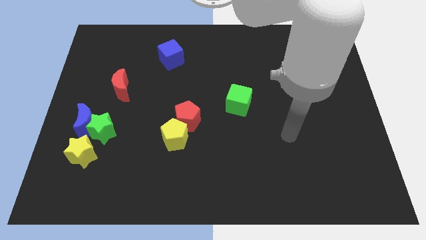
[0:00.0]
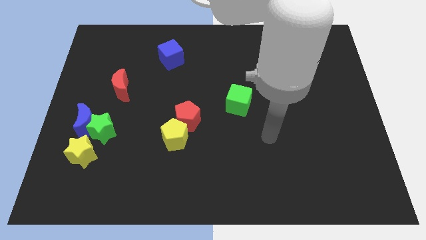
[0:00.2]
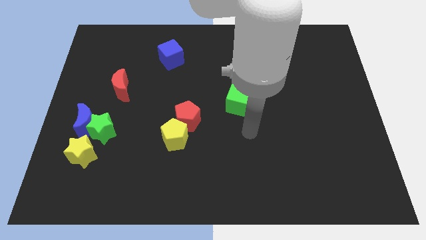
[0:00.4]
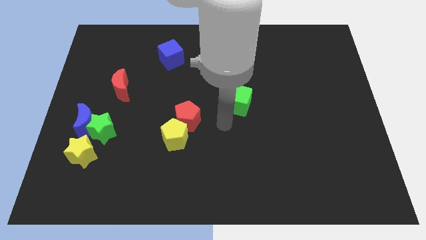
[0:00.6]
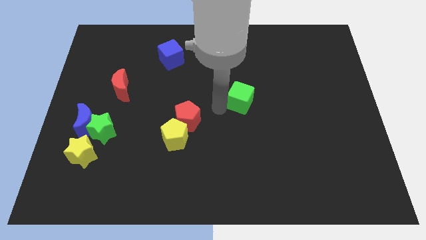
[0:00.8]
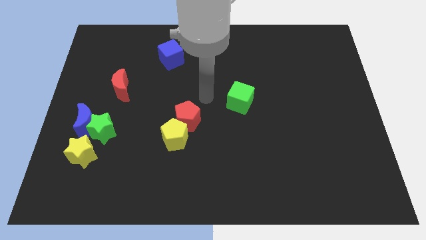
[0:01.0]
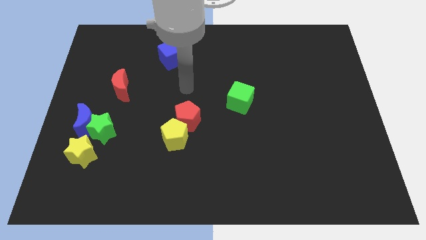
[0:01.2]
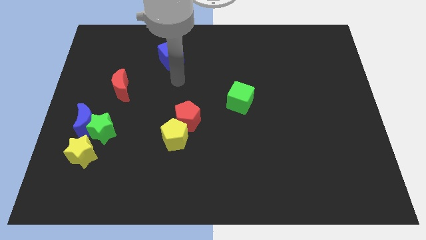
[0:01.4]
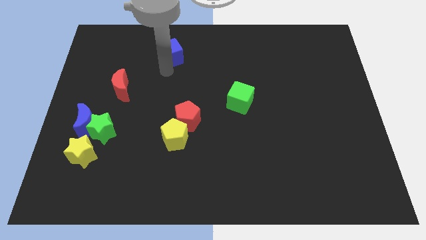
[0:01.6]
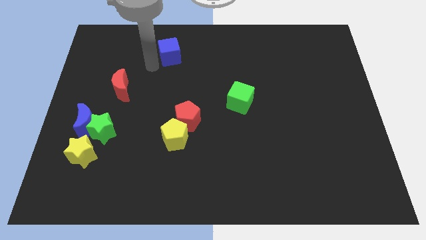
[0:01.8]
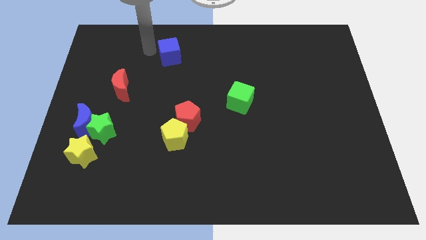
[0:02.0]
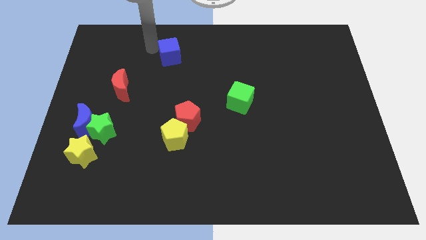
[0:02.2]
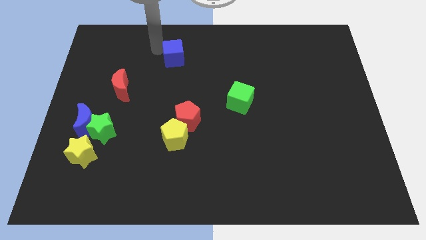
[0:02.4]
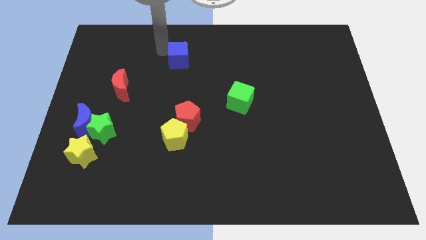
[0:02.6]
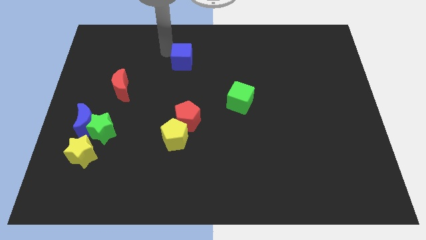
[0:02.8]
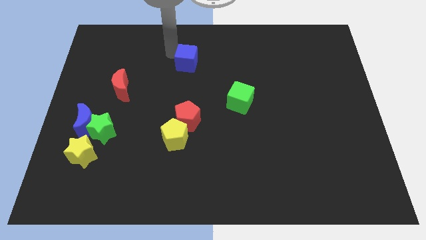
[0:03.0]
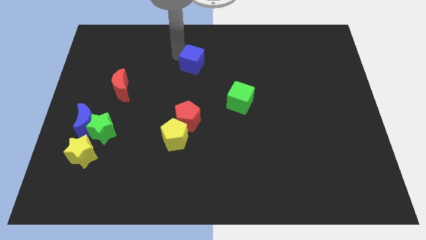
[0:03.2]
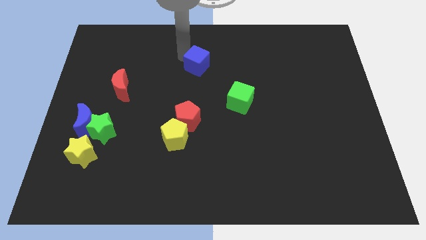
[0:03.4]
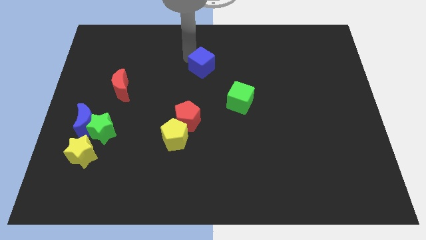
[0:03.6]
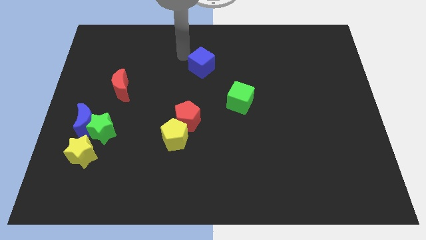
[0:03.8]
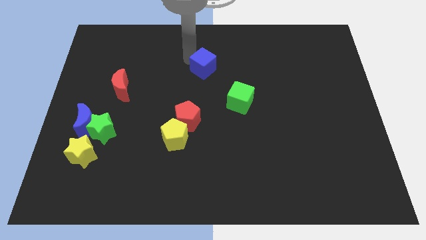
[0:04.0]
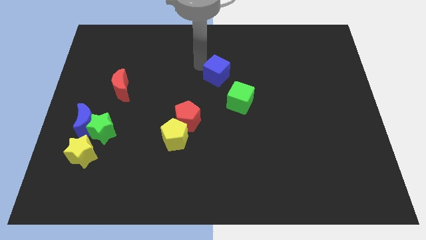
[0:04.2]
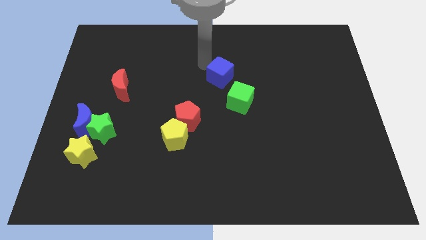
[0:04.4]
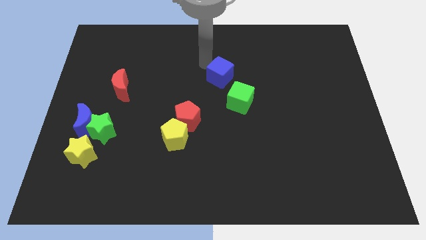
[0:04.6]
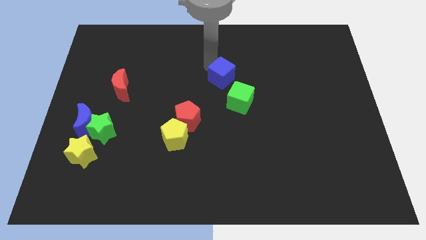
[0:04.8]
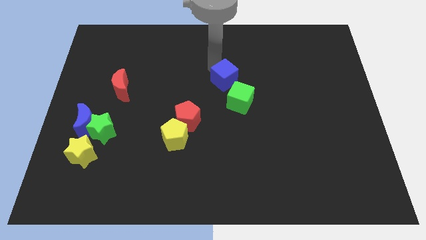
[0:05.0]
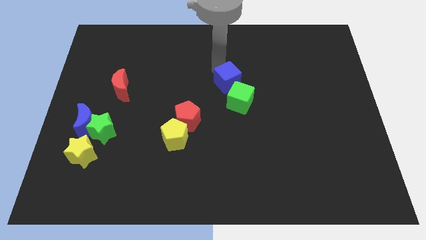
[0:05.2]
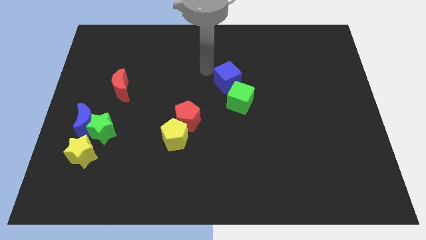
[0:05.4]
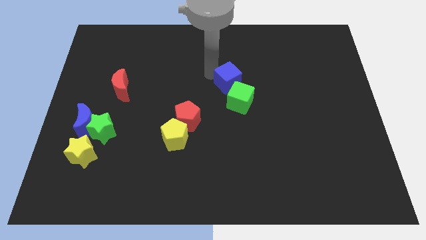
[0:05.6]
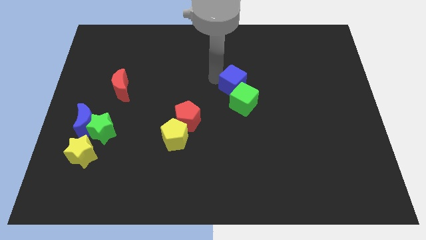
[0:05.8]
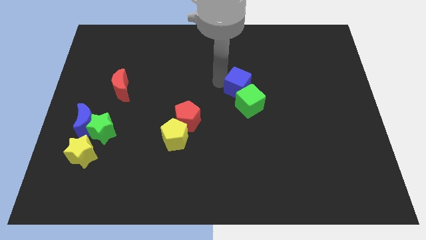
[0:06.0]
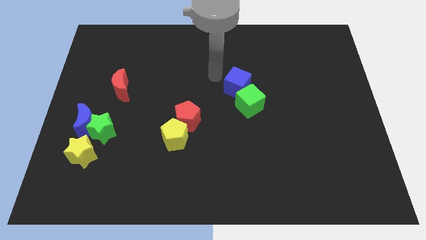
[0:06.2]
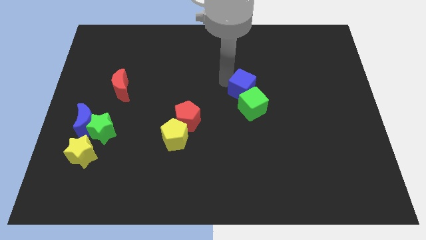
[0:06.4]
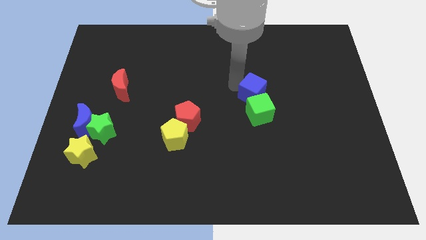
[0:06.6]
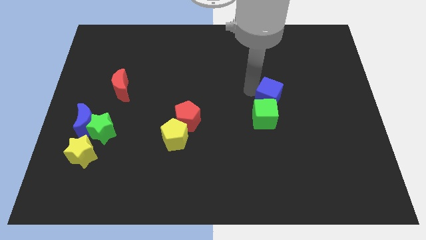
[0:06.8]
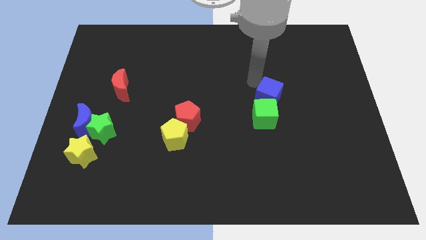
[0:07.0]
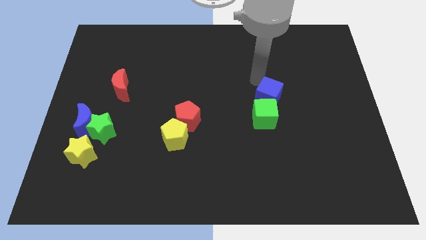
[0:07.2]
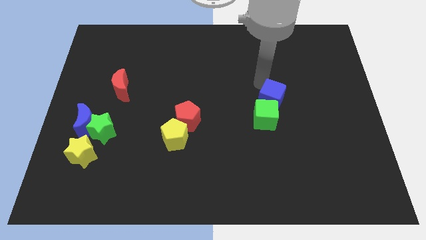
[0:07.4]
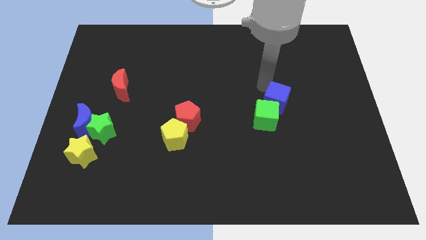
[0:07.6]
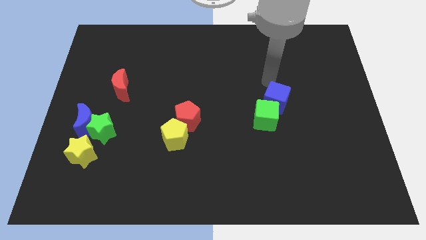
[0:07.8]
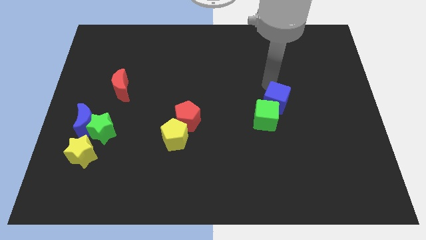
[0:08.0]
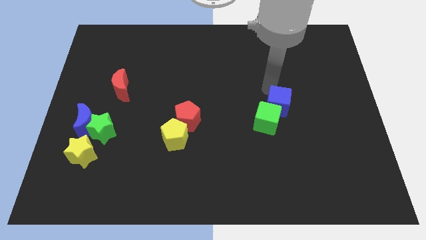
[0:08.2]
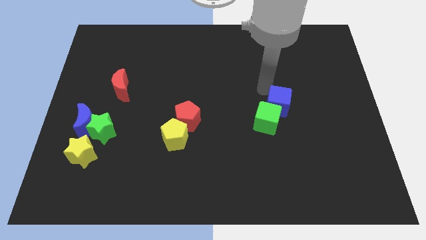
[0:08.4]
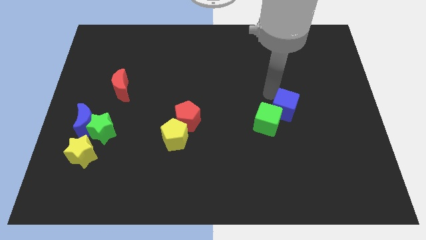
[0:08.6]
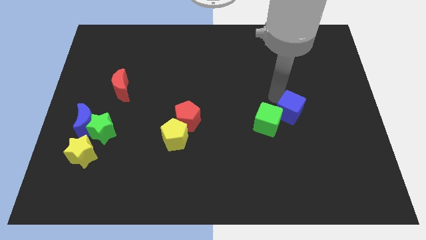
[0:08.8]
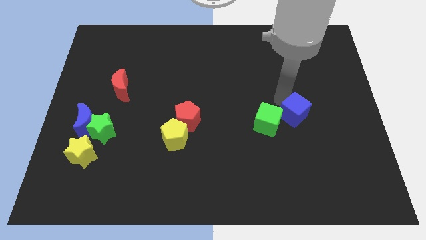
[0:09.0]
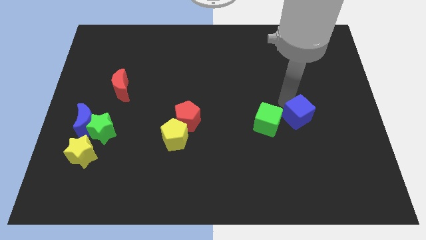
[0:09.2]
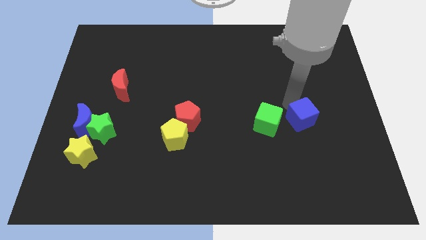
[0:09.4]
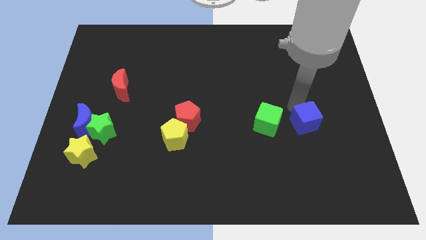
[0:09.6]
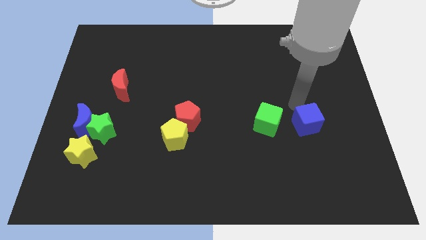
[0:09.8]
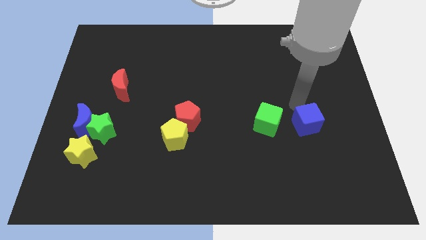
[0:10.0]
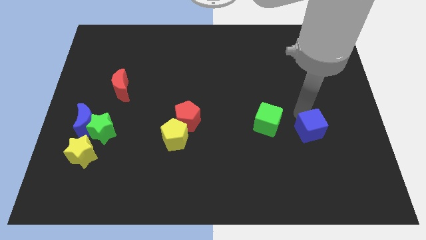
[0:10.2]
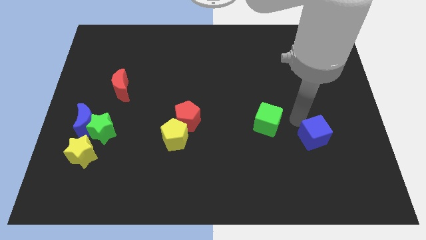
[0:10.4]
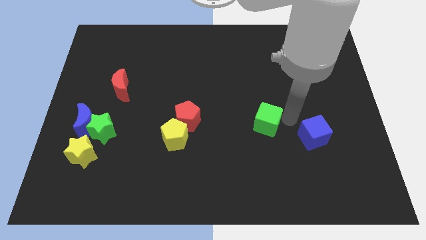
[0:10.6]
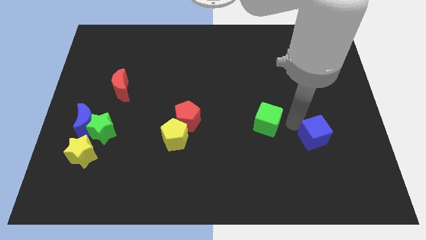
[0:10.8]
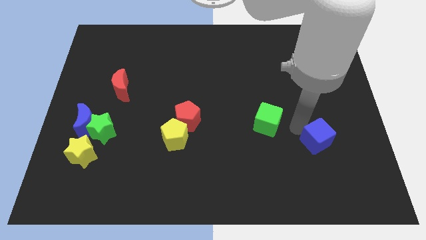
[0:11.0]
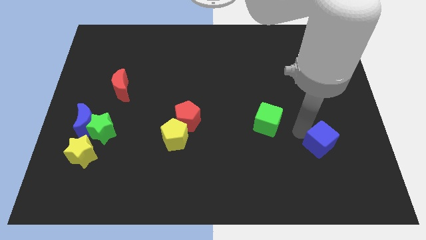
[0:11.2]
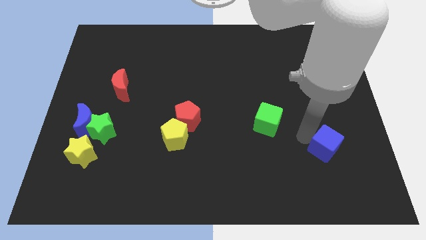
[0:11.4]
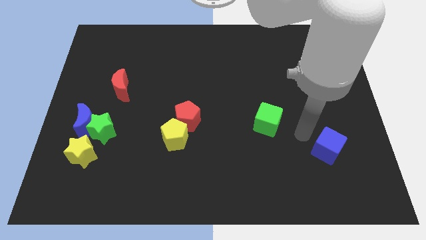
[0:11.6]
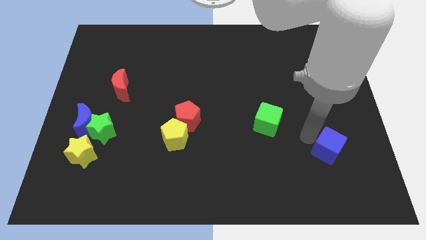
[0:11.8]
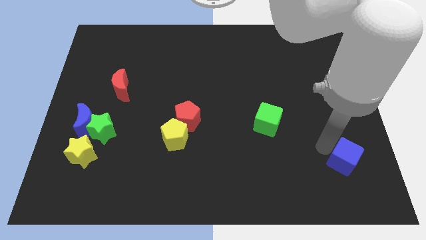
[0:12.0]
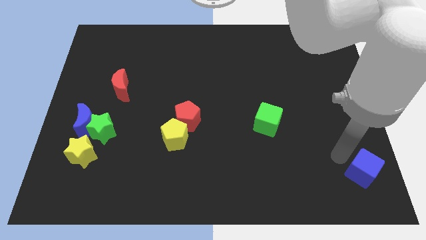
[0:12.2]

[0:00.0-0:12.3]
slide the blue cube to the bottom right corner

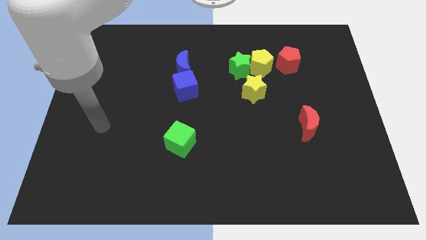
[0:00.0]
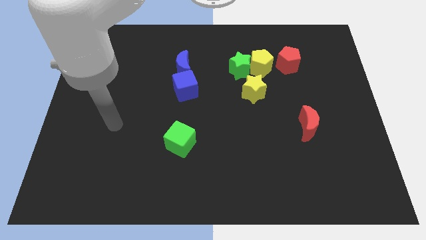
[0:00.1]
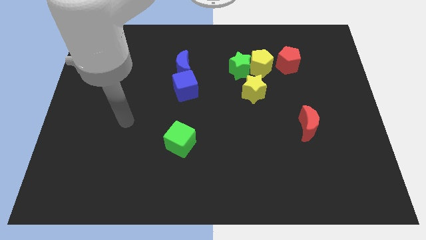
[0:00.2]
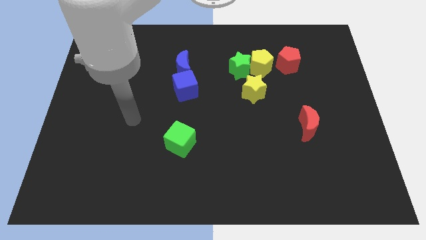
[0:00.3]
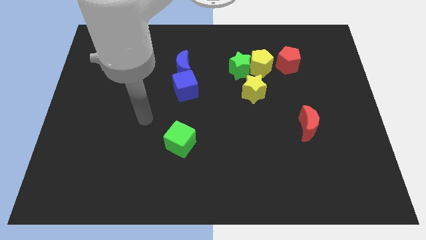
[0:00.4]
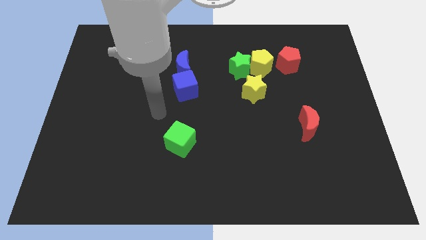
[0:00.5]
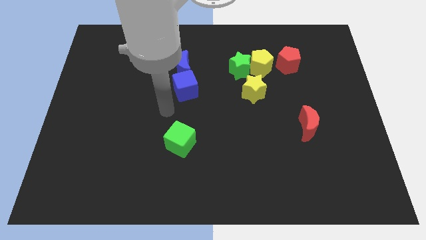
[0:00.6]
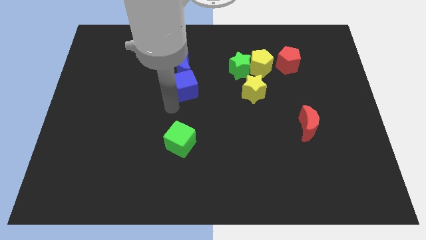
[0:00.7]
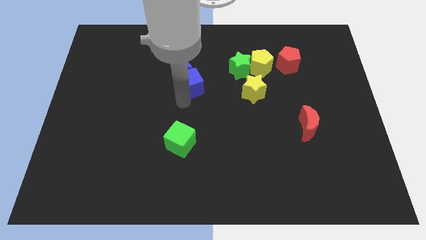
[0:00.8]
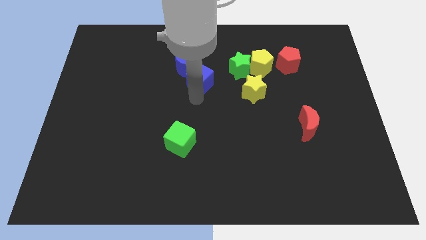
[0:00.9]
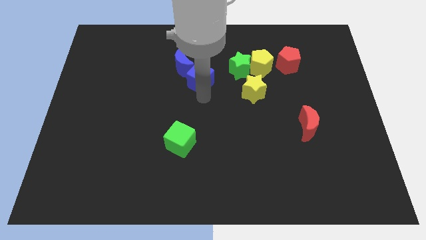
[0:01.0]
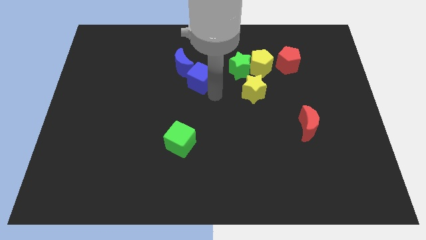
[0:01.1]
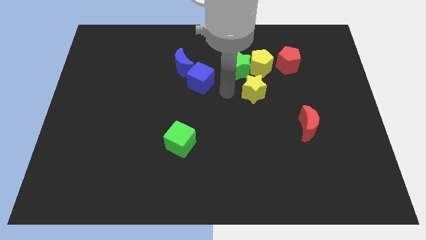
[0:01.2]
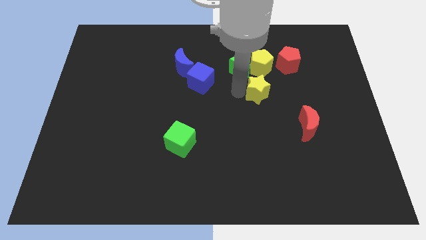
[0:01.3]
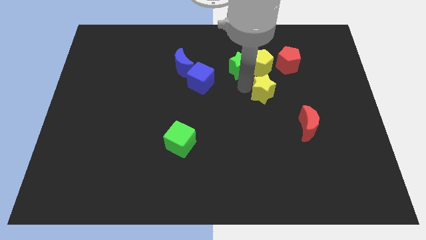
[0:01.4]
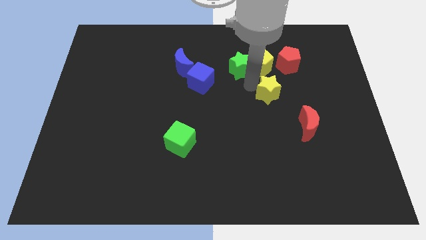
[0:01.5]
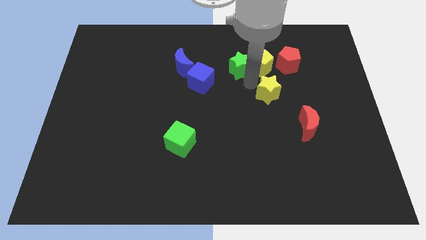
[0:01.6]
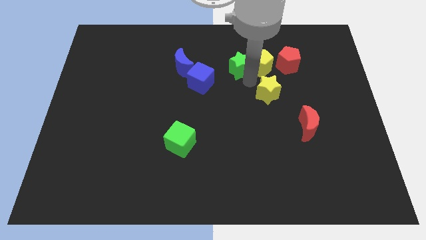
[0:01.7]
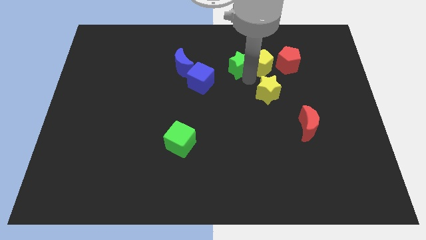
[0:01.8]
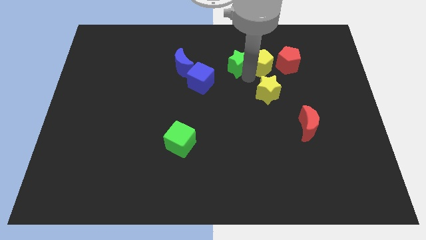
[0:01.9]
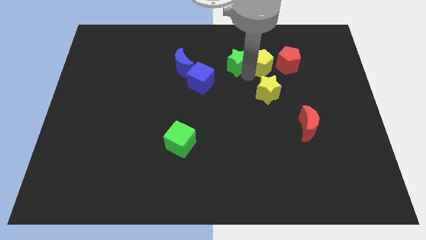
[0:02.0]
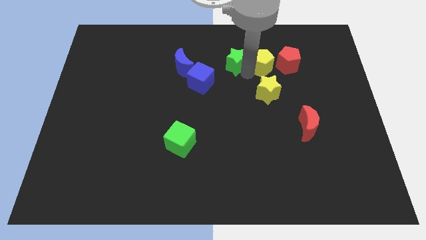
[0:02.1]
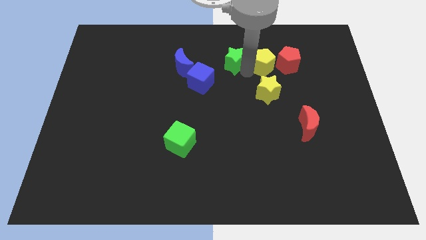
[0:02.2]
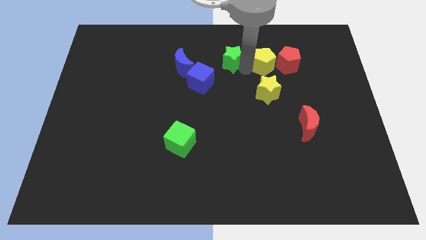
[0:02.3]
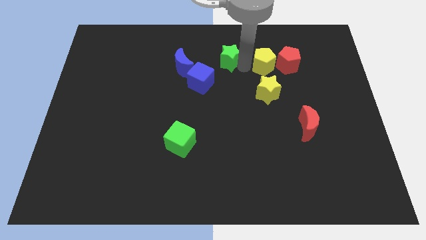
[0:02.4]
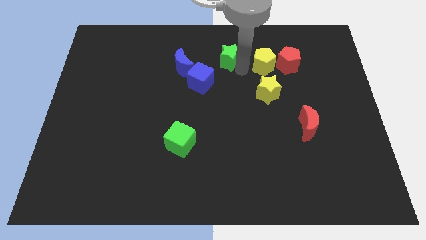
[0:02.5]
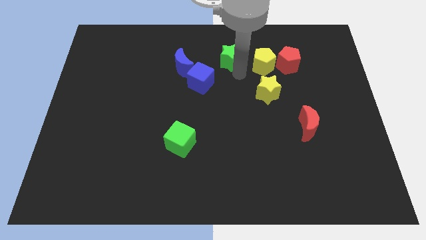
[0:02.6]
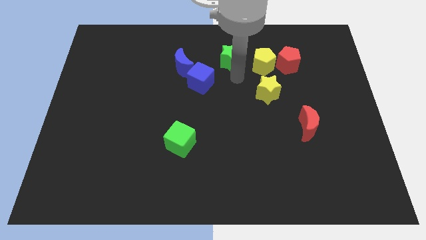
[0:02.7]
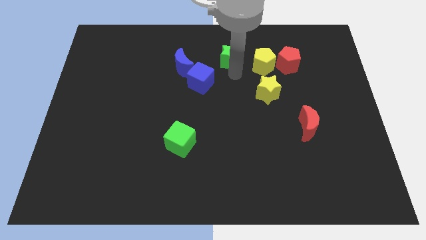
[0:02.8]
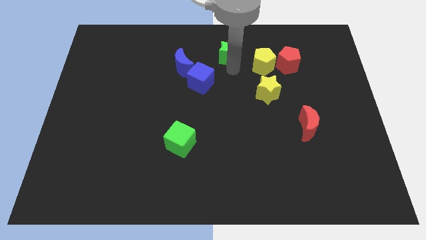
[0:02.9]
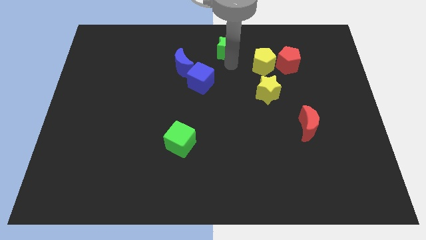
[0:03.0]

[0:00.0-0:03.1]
push the green star to the top side
